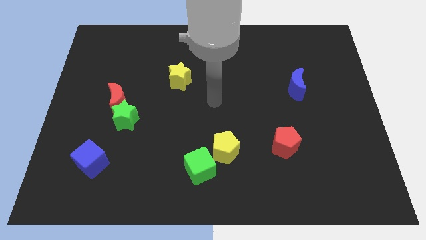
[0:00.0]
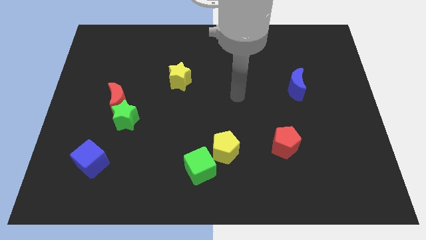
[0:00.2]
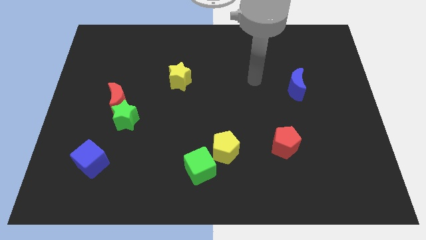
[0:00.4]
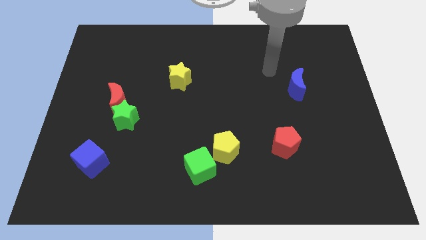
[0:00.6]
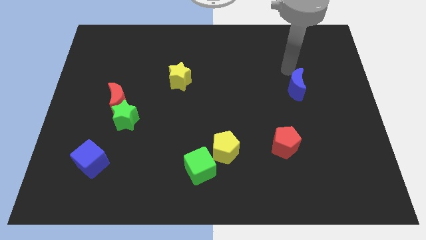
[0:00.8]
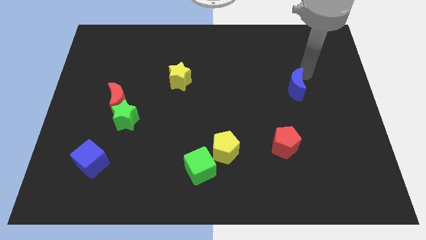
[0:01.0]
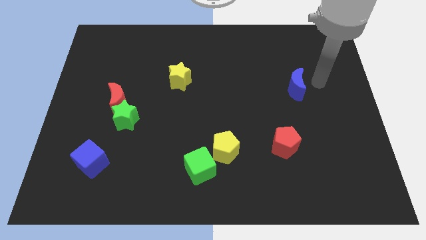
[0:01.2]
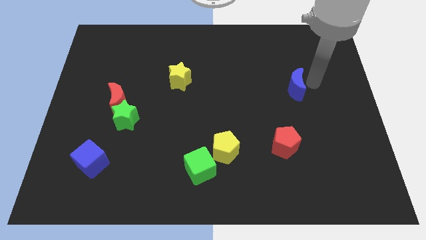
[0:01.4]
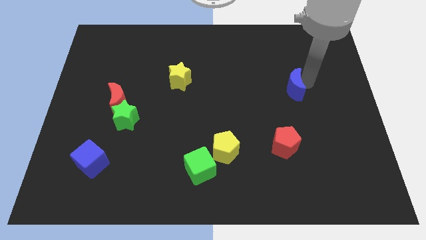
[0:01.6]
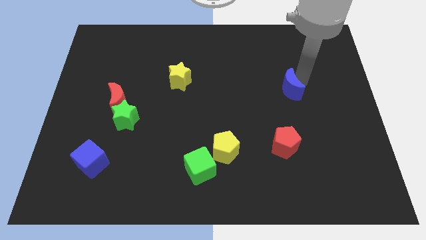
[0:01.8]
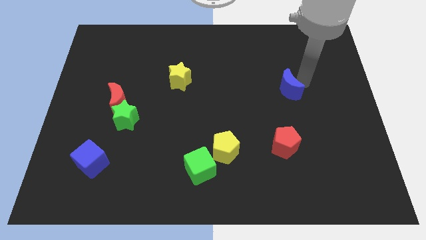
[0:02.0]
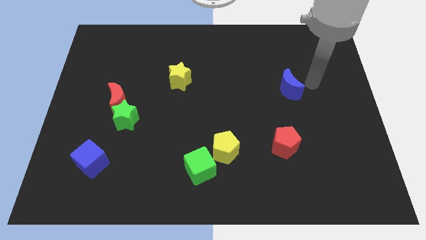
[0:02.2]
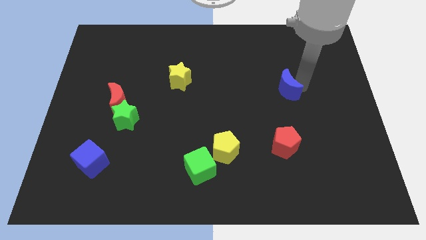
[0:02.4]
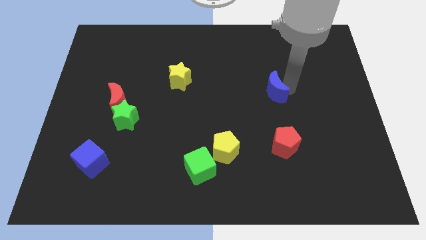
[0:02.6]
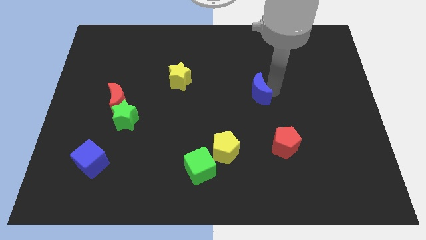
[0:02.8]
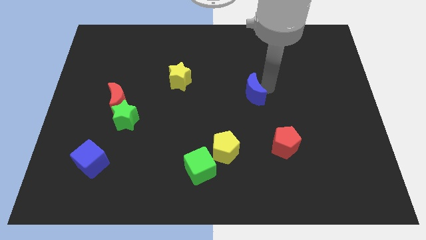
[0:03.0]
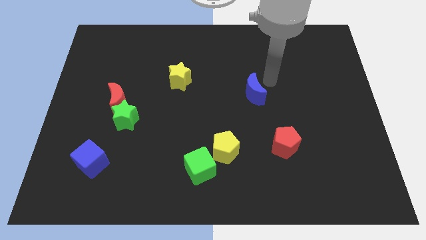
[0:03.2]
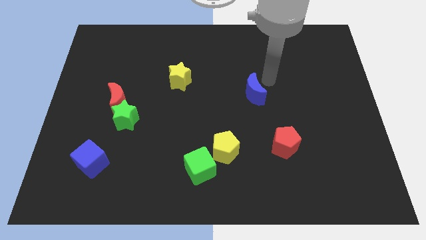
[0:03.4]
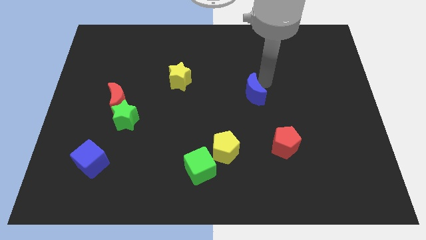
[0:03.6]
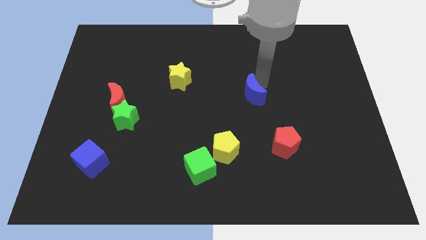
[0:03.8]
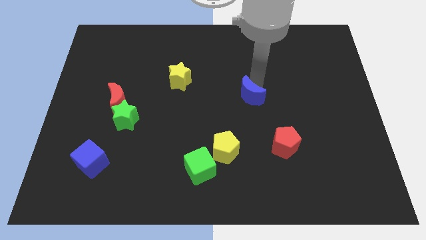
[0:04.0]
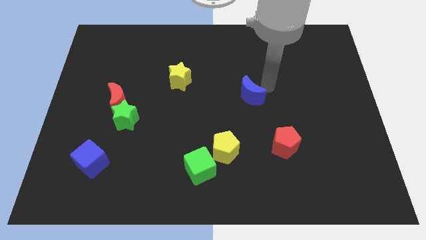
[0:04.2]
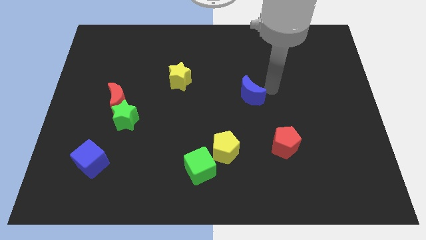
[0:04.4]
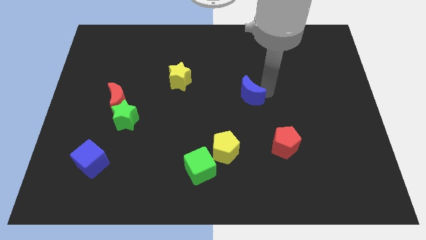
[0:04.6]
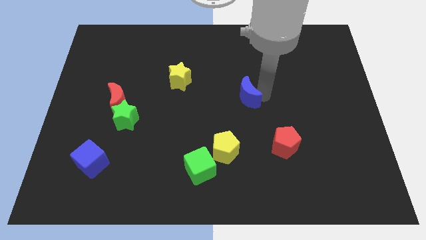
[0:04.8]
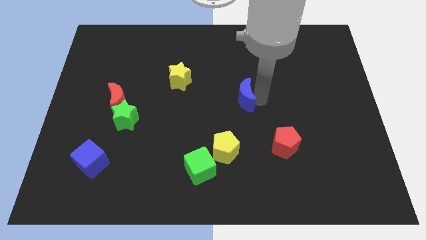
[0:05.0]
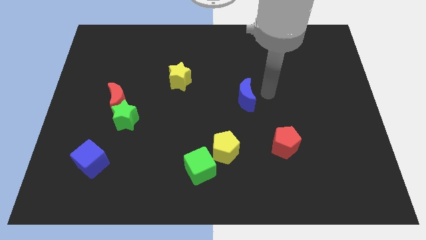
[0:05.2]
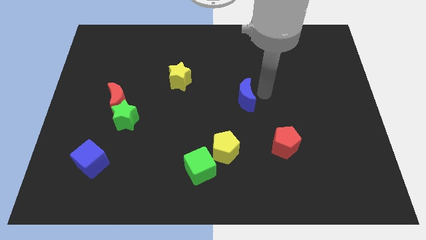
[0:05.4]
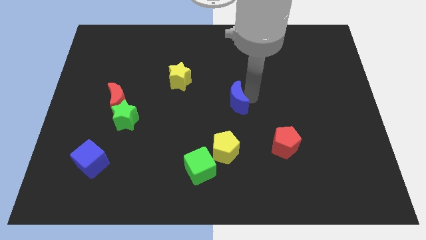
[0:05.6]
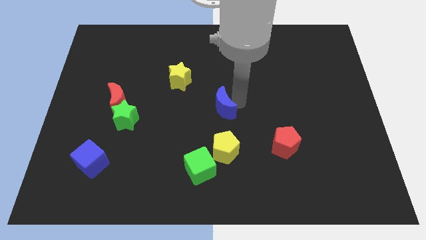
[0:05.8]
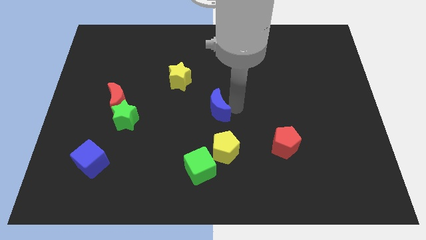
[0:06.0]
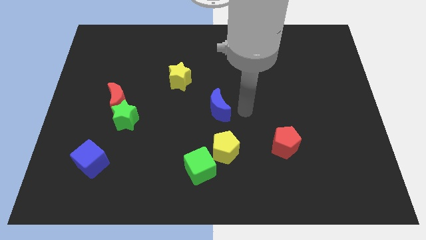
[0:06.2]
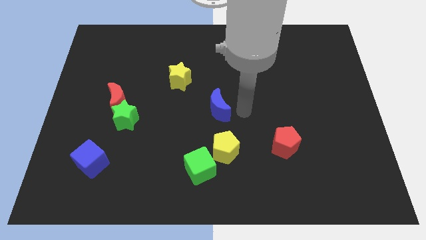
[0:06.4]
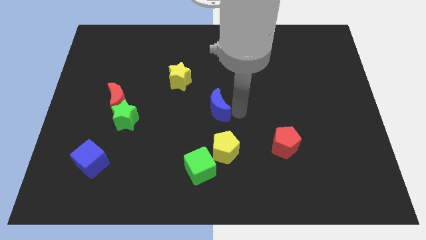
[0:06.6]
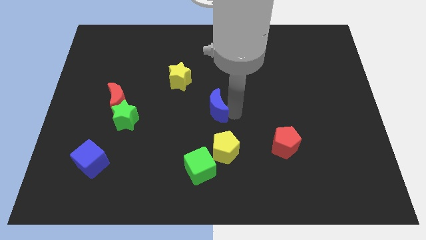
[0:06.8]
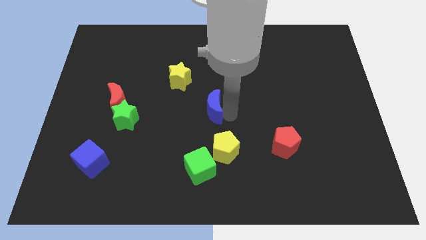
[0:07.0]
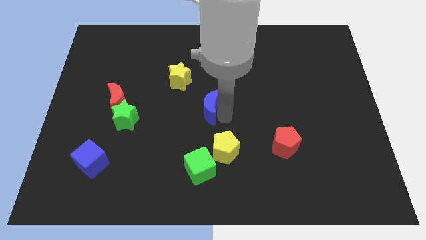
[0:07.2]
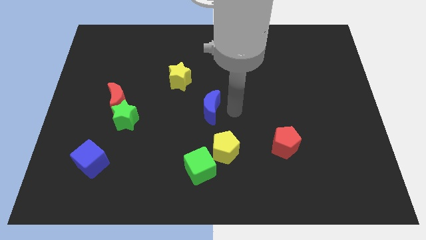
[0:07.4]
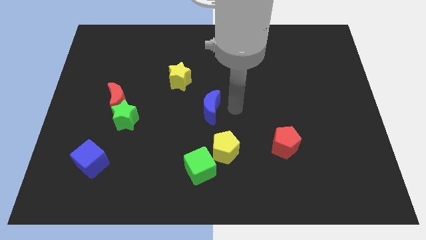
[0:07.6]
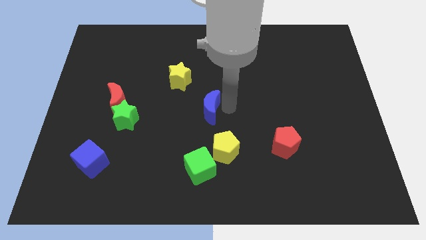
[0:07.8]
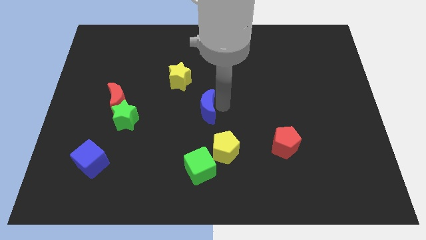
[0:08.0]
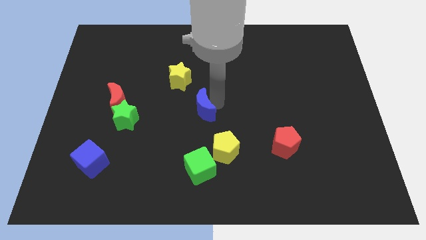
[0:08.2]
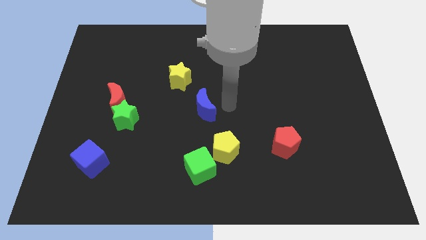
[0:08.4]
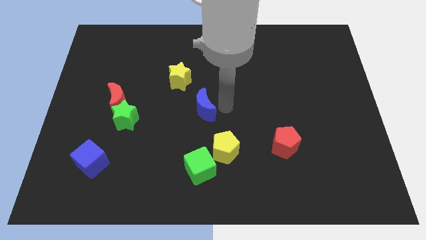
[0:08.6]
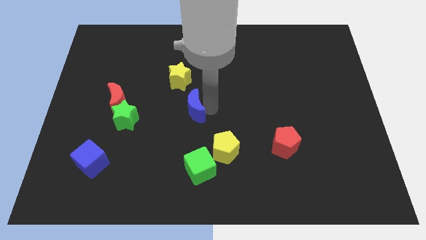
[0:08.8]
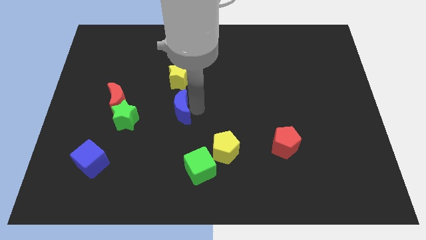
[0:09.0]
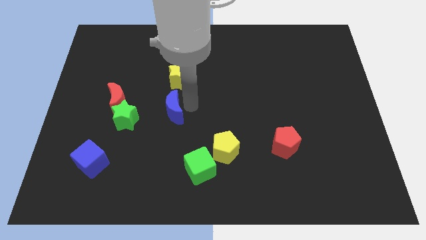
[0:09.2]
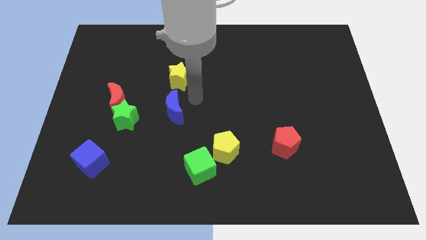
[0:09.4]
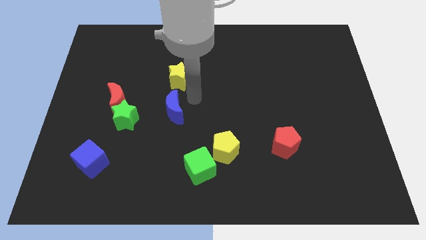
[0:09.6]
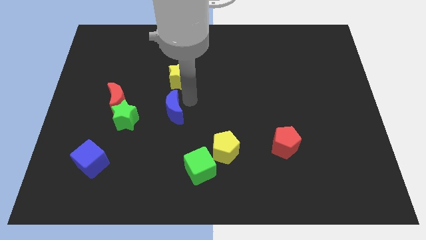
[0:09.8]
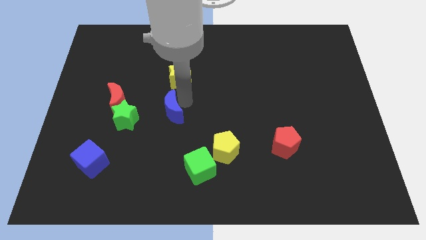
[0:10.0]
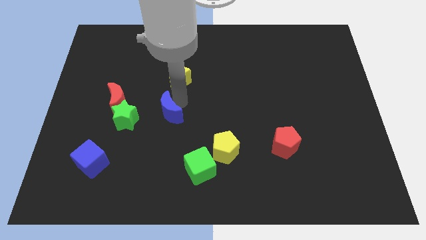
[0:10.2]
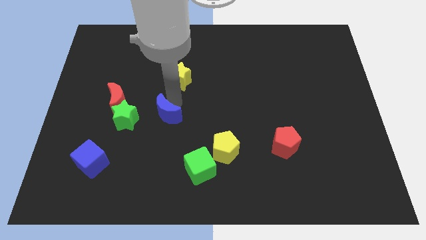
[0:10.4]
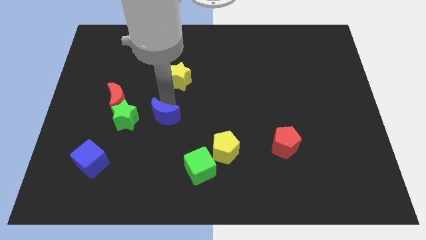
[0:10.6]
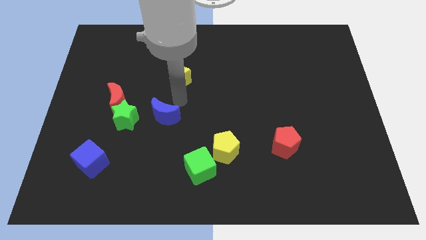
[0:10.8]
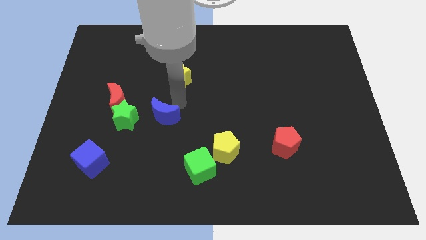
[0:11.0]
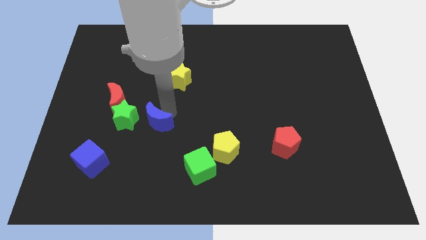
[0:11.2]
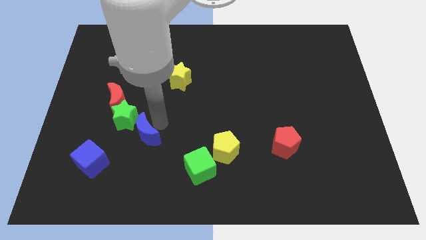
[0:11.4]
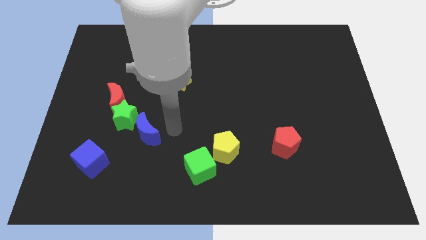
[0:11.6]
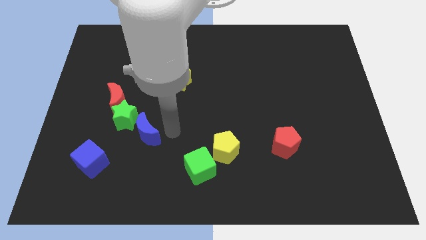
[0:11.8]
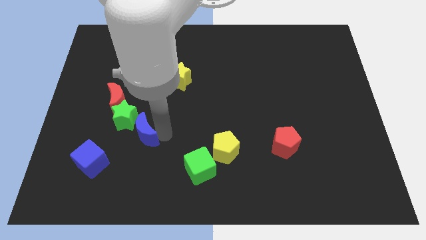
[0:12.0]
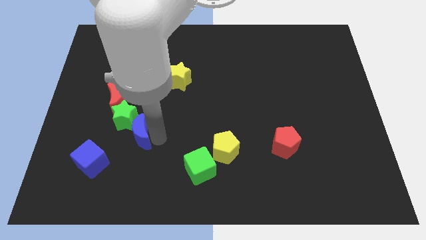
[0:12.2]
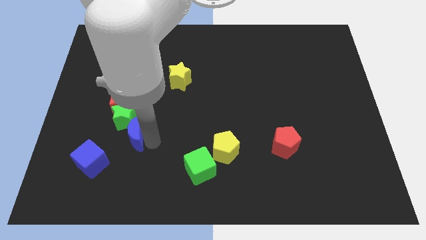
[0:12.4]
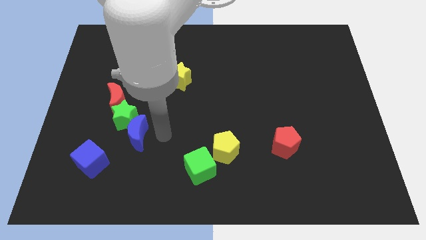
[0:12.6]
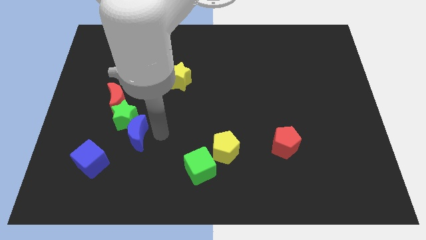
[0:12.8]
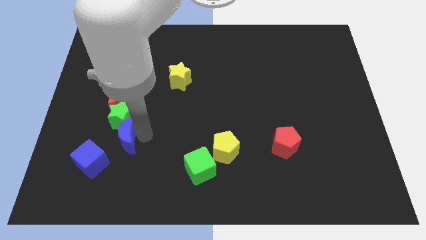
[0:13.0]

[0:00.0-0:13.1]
slide the blue moon to the bottom side of the red moon

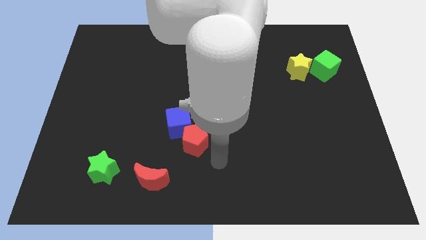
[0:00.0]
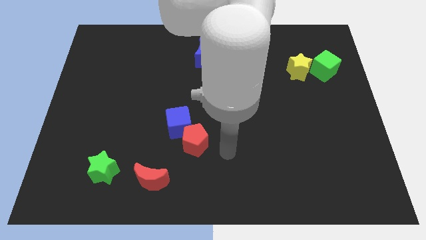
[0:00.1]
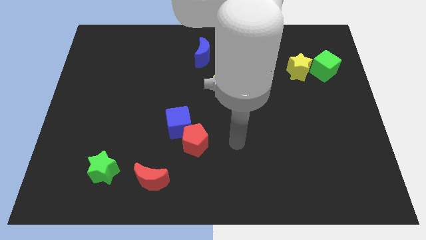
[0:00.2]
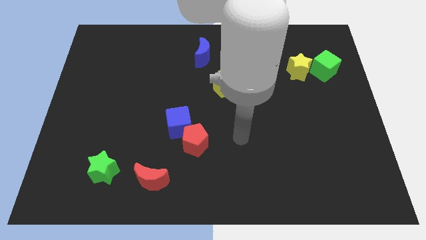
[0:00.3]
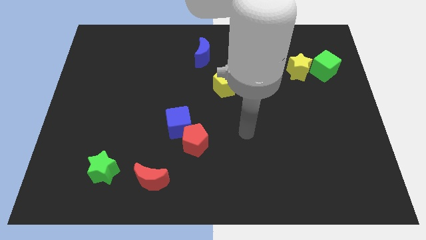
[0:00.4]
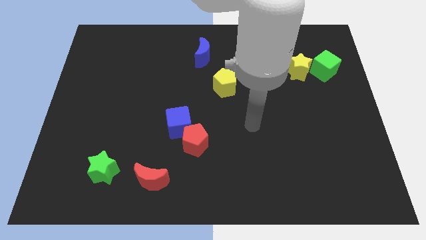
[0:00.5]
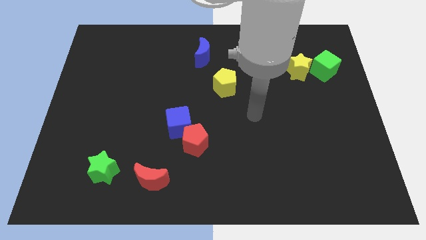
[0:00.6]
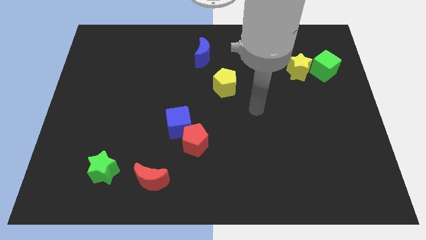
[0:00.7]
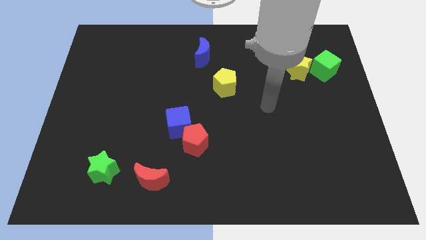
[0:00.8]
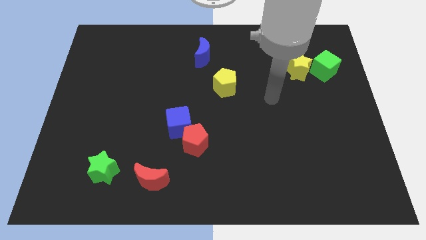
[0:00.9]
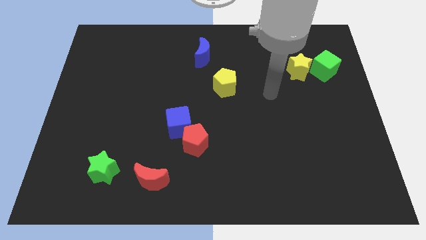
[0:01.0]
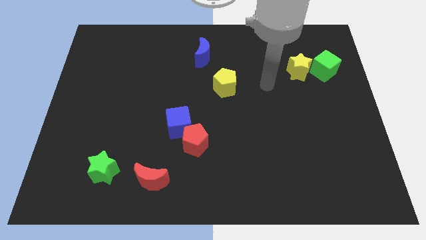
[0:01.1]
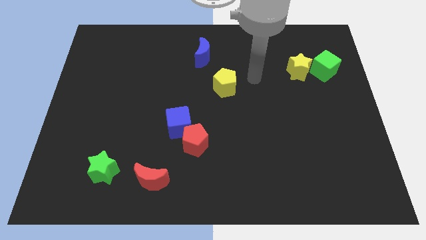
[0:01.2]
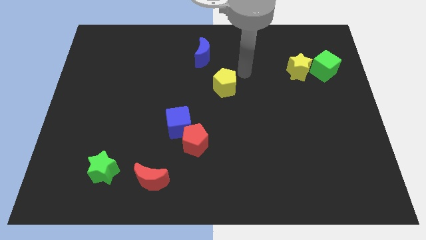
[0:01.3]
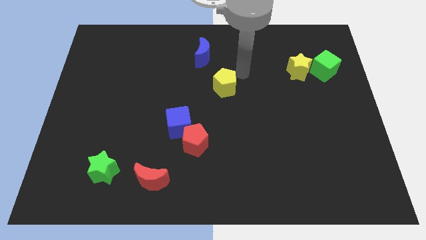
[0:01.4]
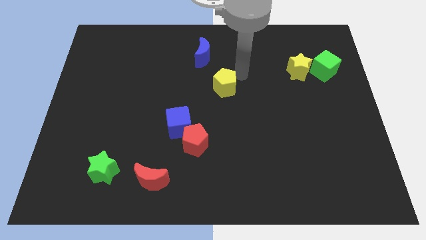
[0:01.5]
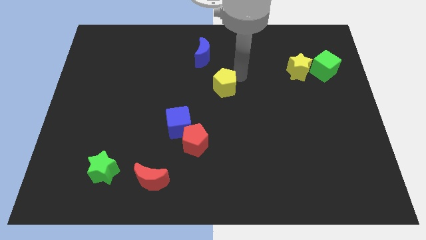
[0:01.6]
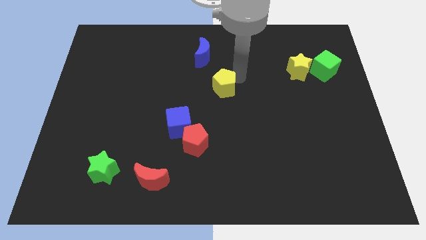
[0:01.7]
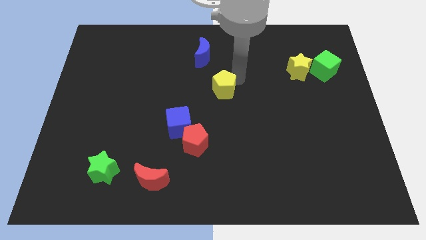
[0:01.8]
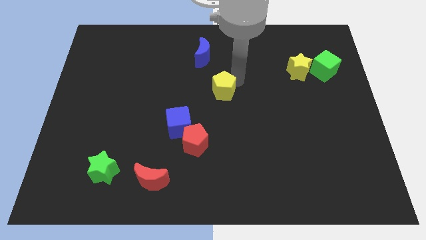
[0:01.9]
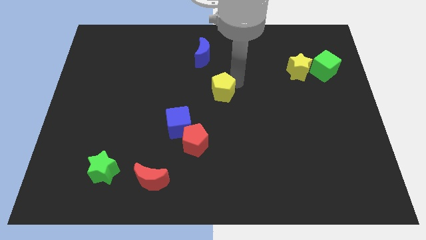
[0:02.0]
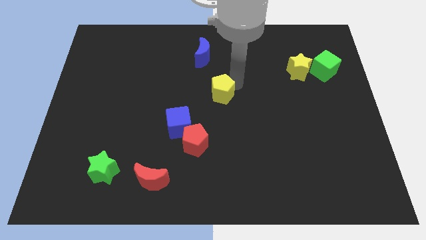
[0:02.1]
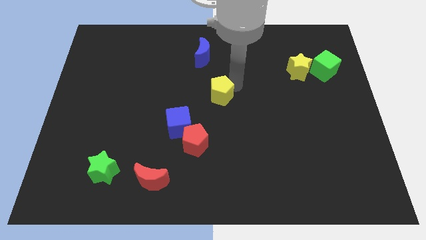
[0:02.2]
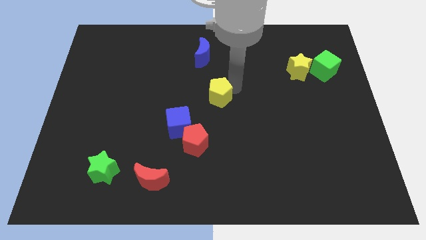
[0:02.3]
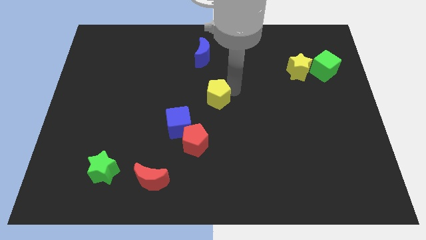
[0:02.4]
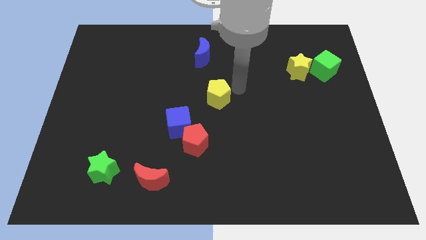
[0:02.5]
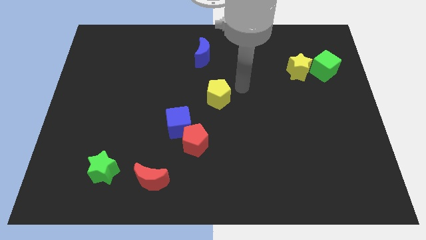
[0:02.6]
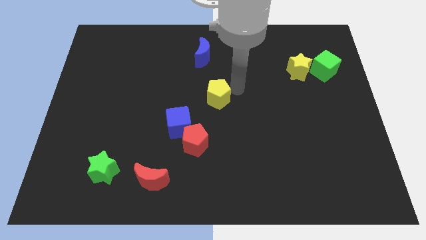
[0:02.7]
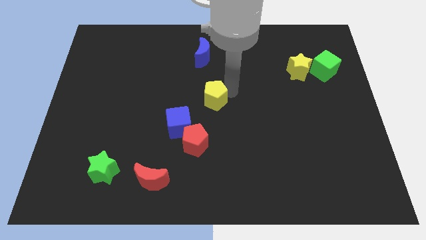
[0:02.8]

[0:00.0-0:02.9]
put the yellow pentagon to the top of the red pentagon
